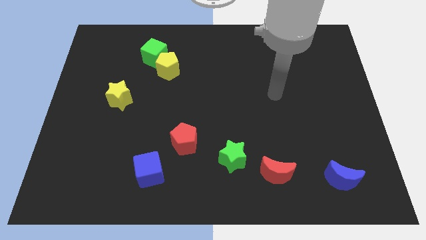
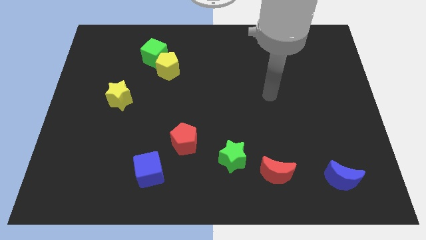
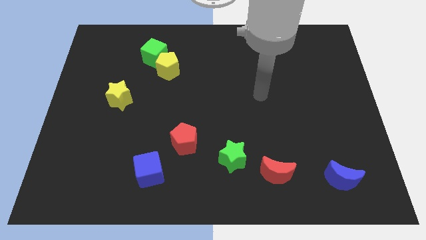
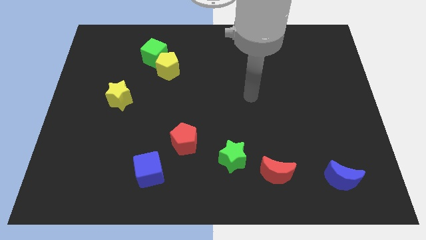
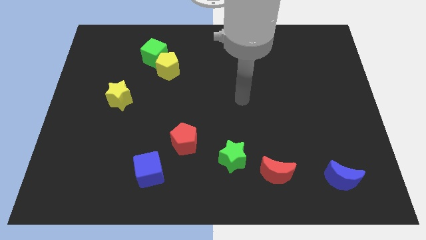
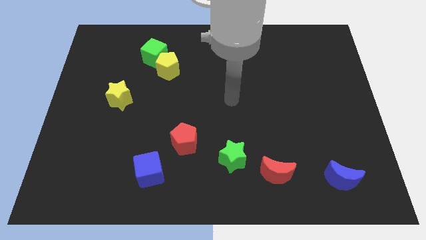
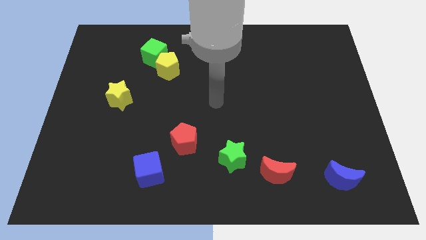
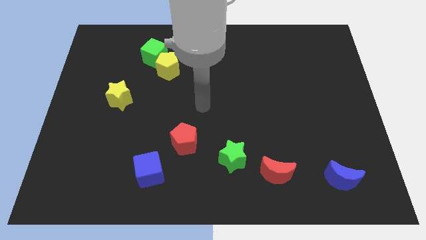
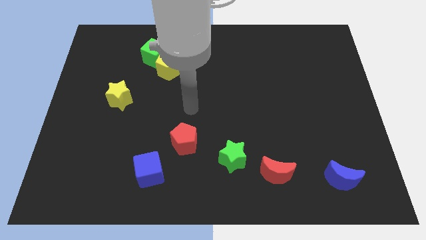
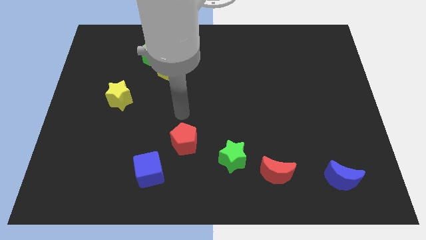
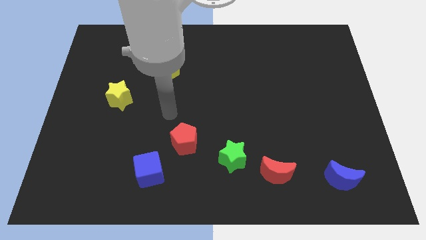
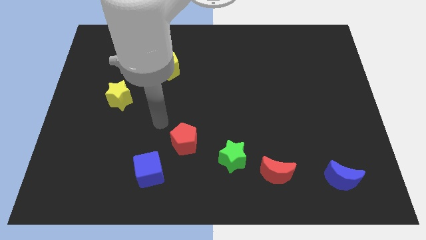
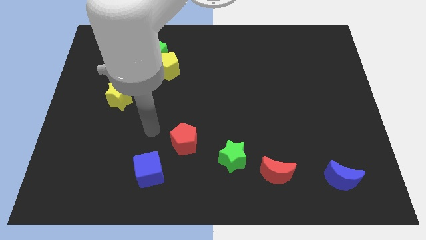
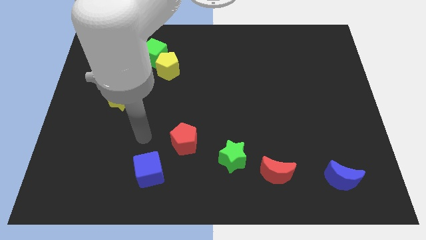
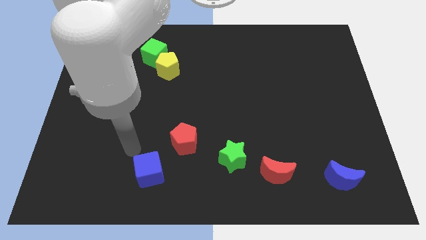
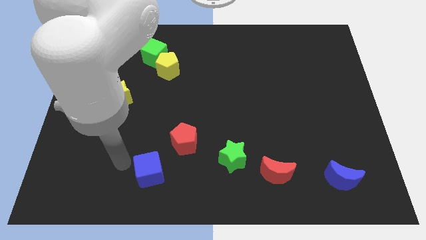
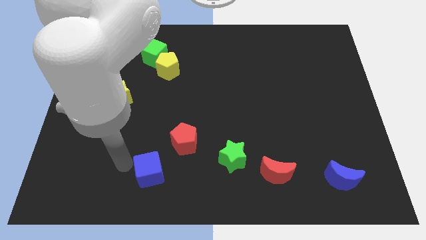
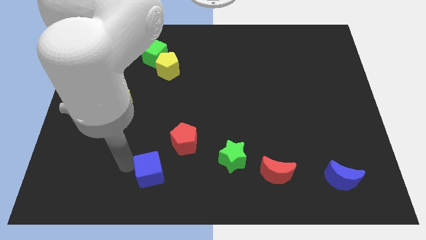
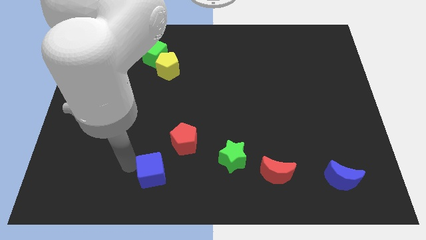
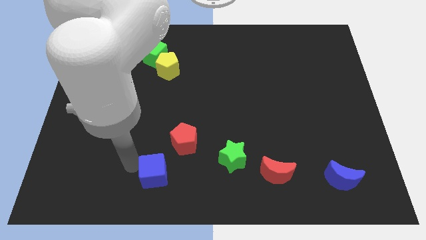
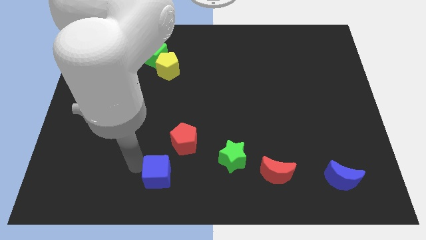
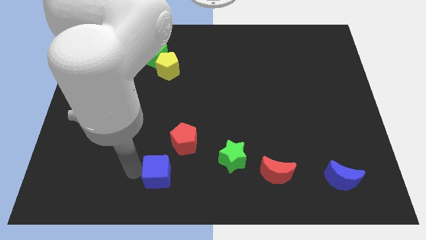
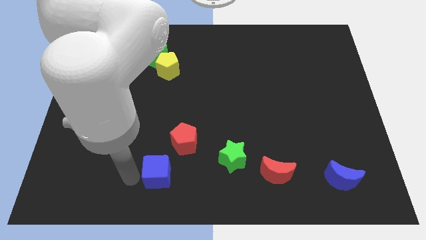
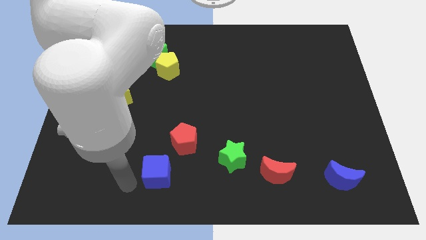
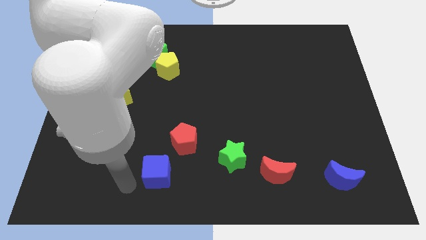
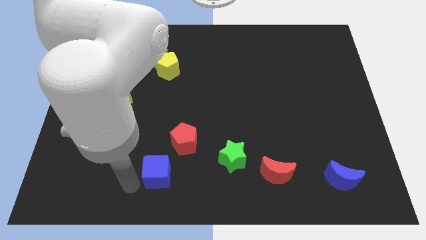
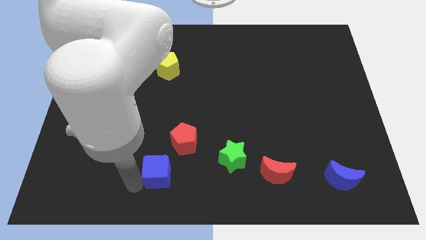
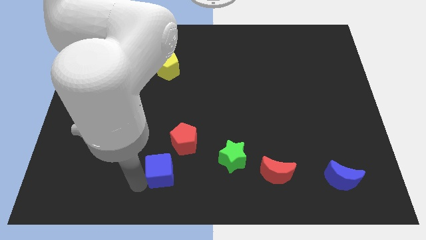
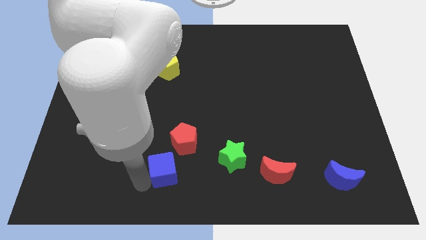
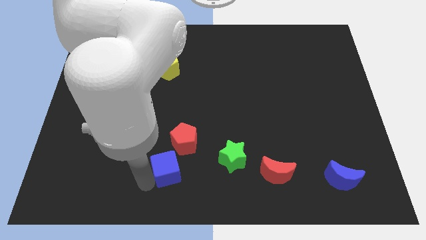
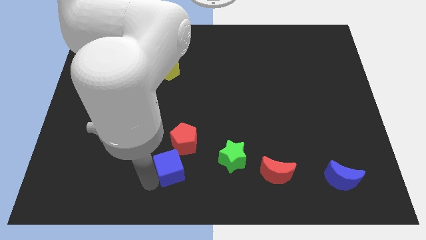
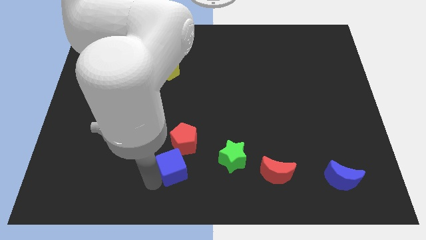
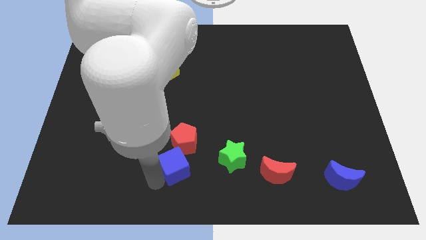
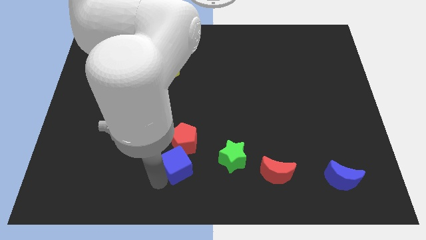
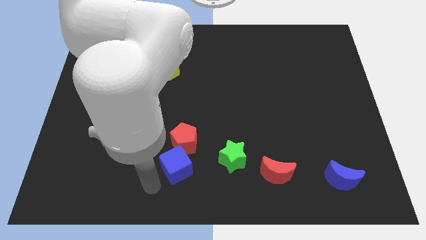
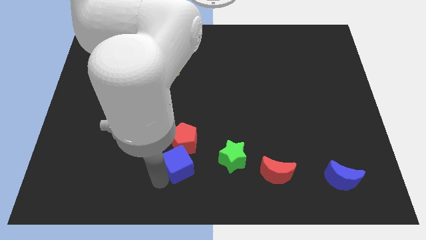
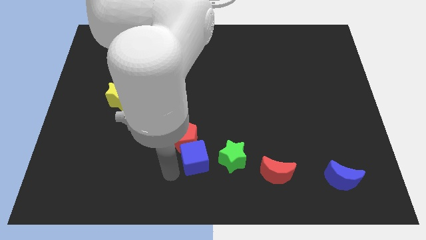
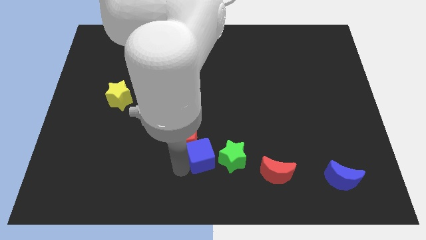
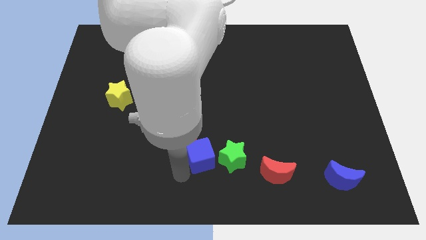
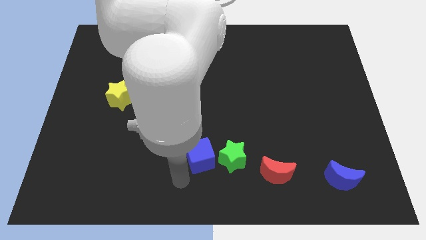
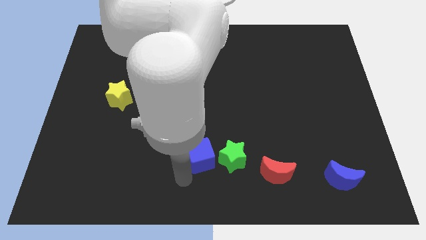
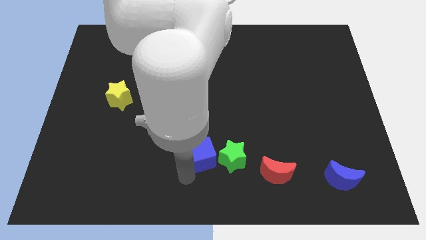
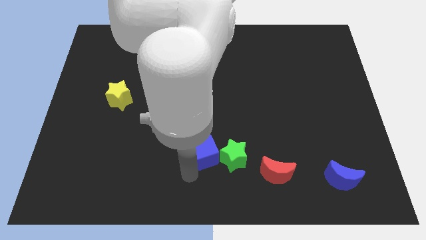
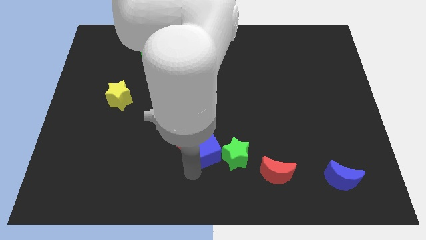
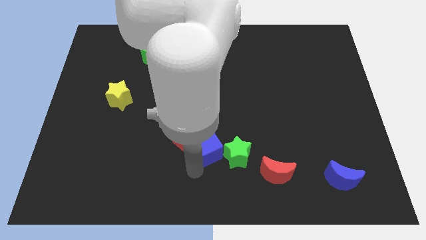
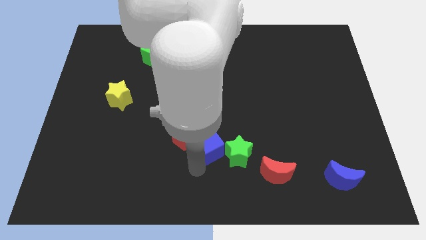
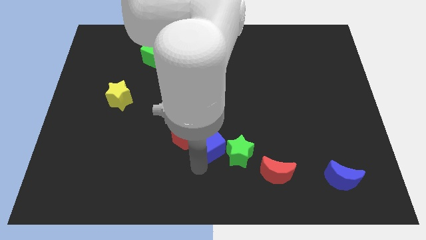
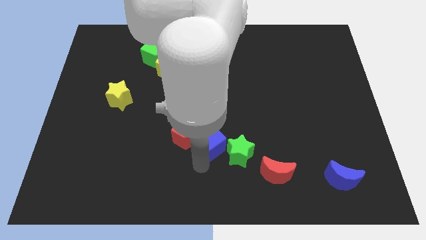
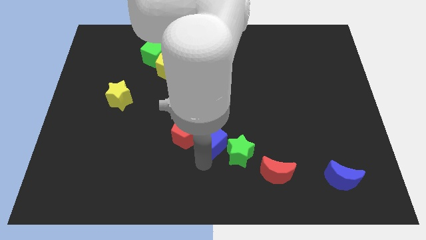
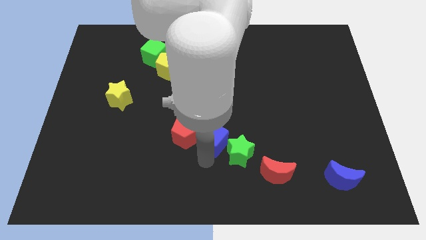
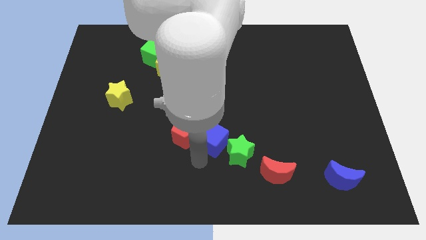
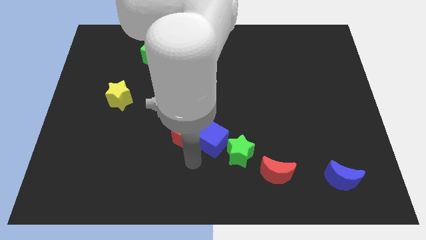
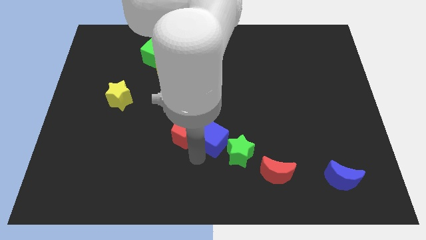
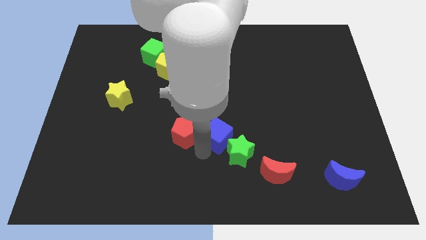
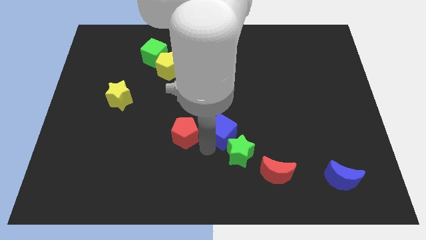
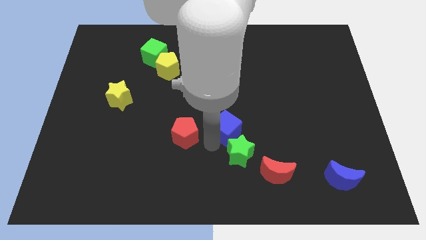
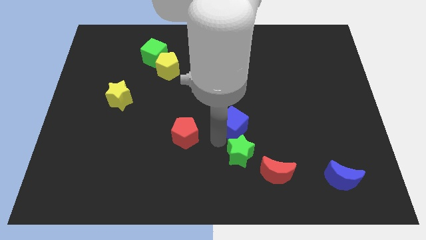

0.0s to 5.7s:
move the blue cube diagonally up and to the right

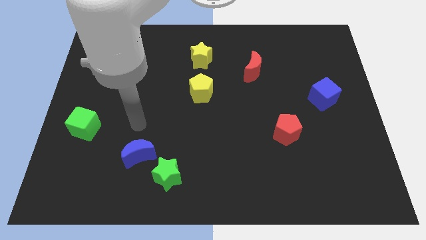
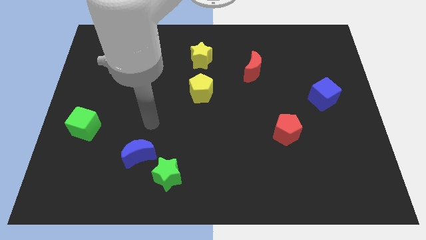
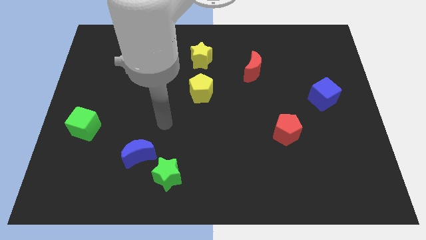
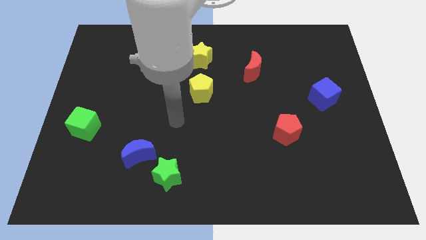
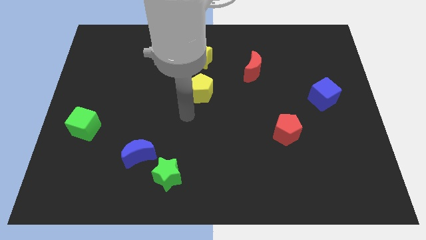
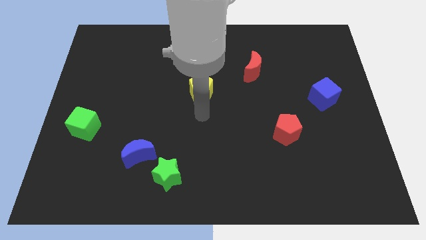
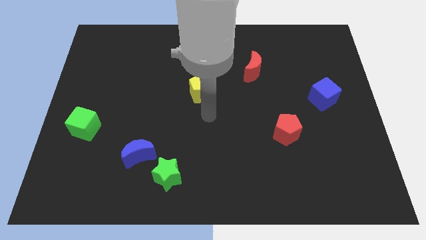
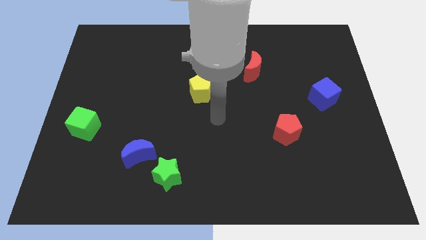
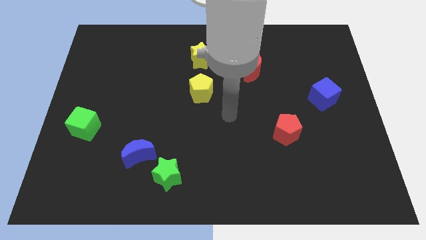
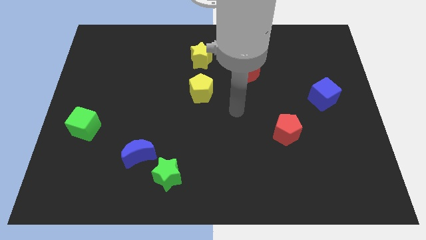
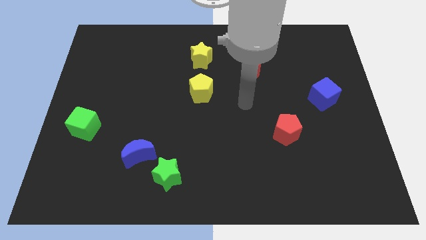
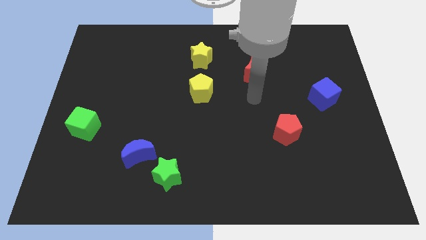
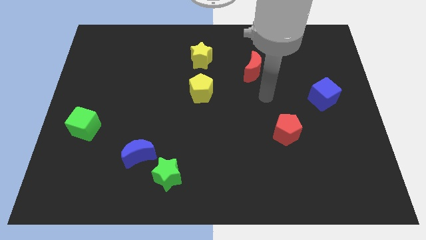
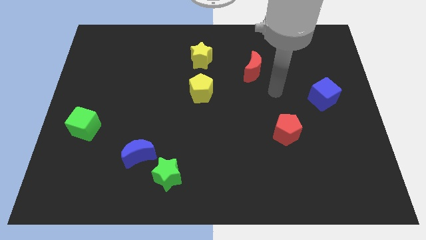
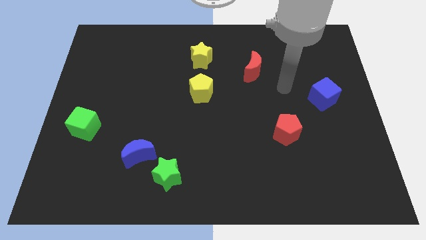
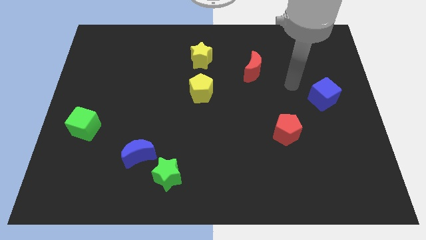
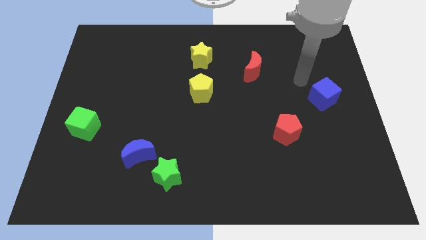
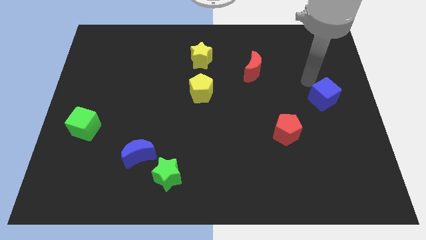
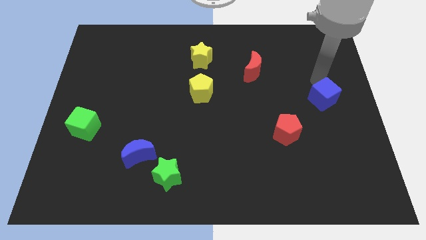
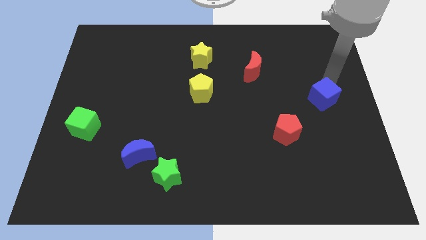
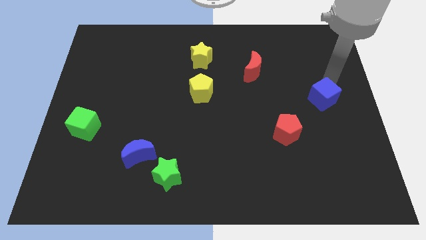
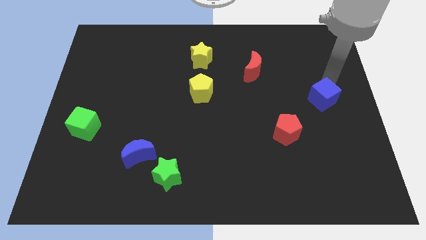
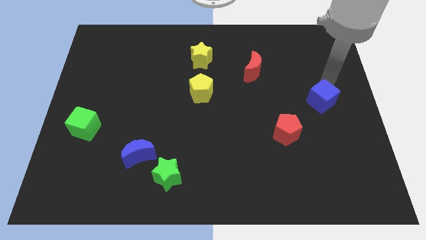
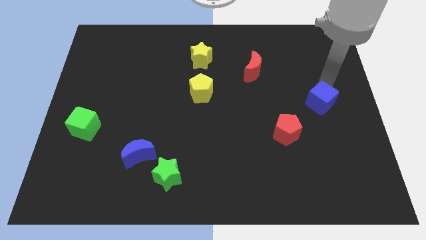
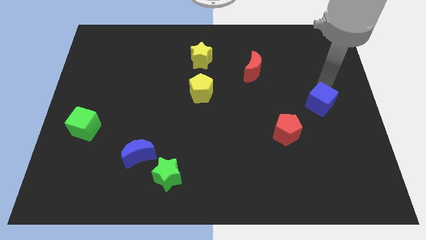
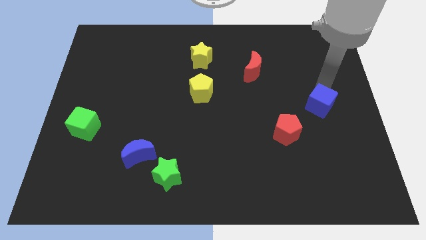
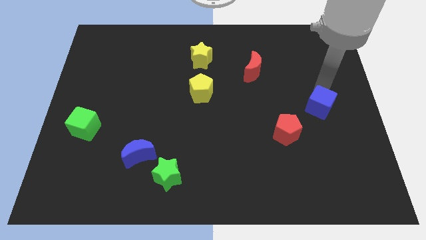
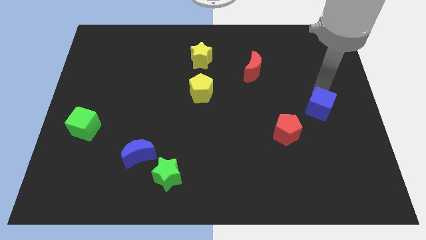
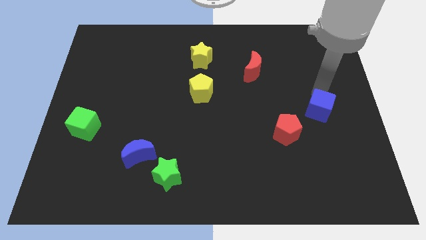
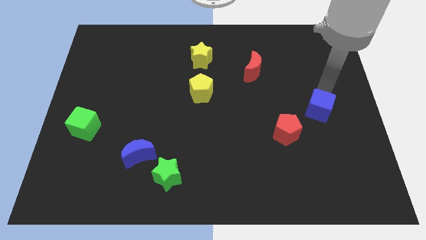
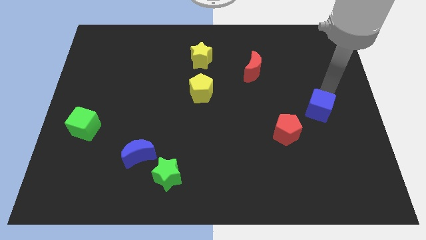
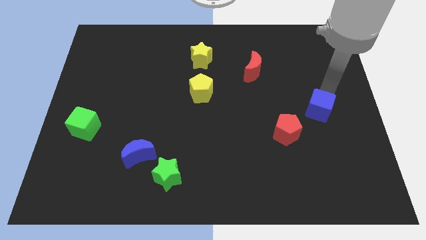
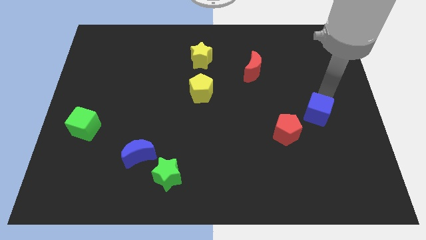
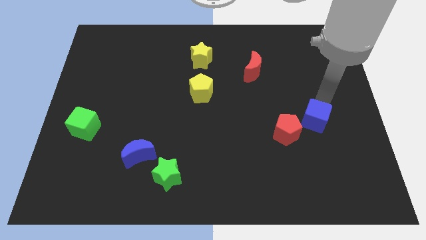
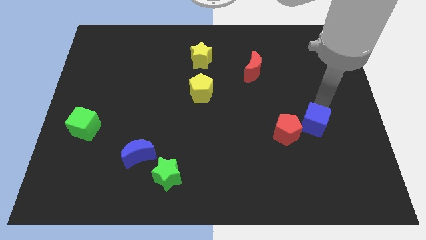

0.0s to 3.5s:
move the blue cube down and then to the left a bit
